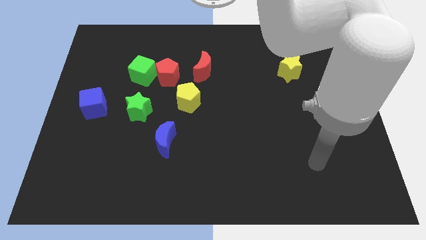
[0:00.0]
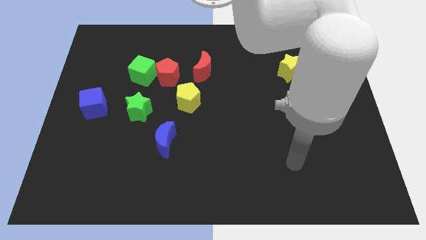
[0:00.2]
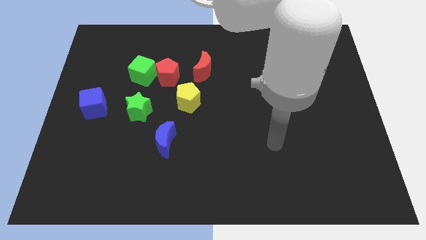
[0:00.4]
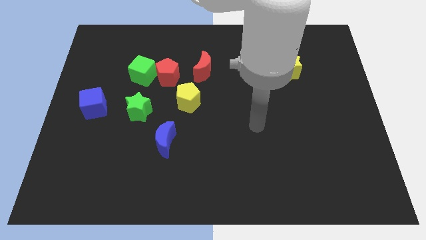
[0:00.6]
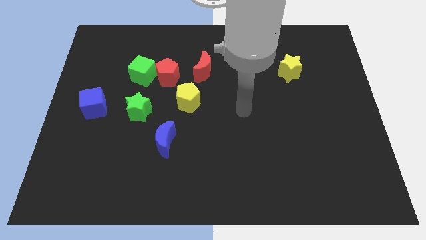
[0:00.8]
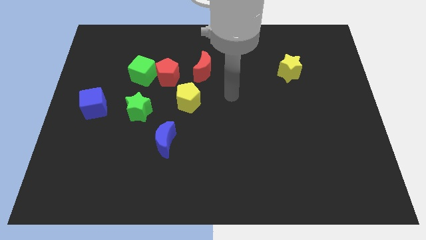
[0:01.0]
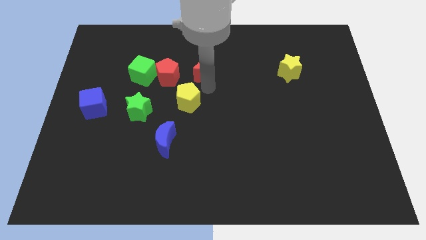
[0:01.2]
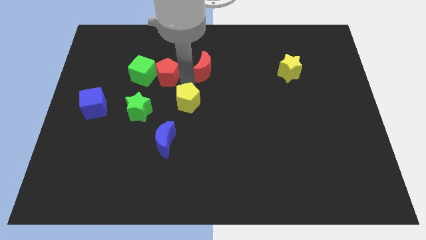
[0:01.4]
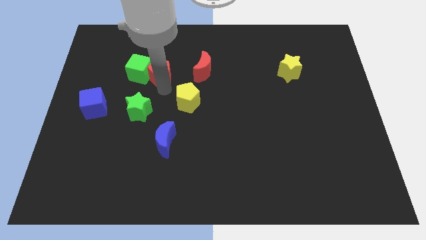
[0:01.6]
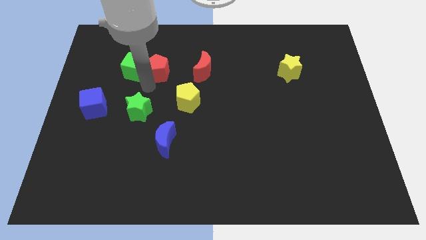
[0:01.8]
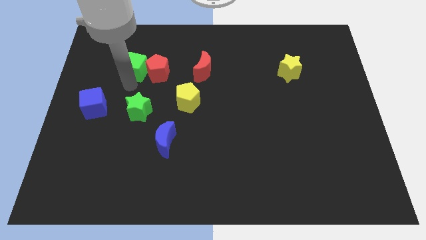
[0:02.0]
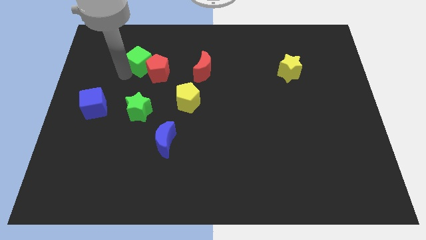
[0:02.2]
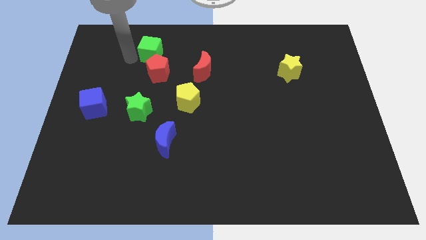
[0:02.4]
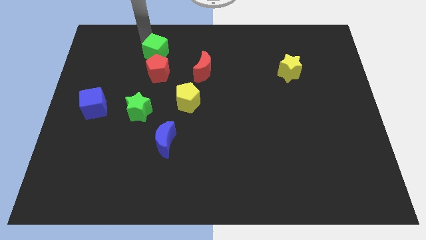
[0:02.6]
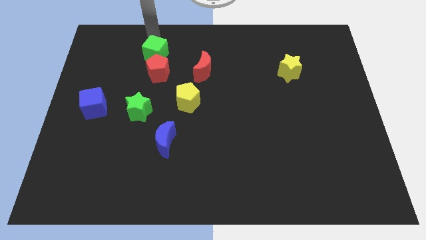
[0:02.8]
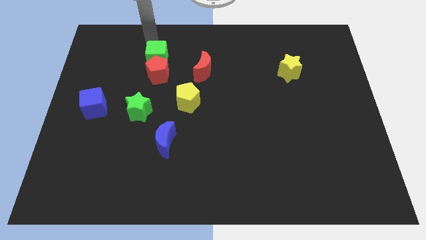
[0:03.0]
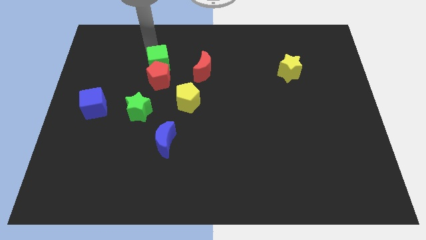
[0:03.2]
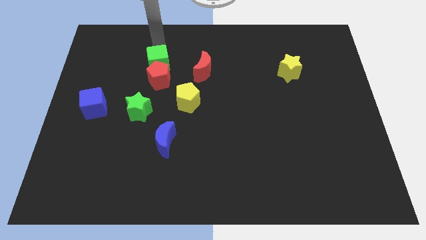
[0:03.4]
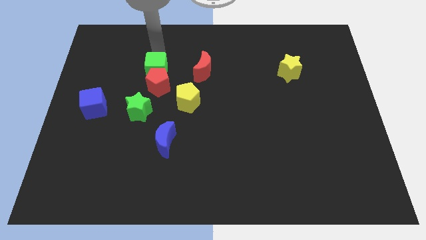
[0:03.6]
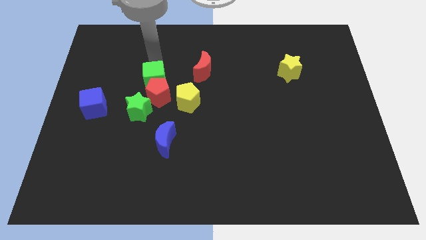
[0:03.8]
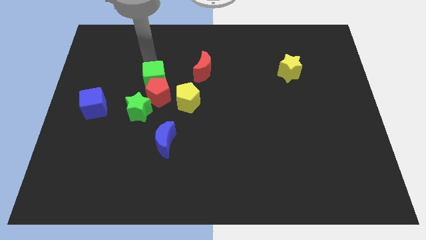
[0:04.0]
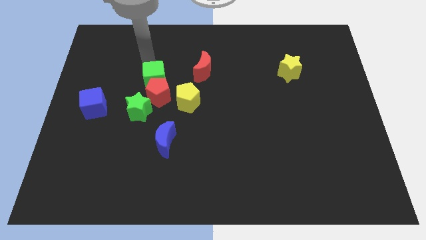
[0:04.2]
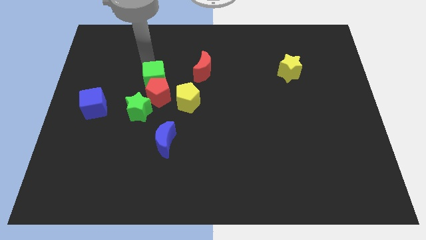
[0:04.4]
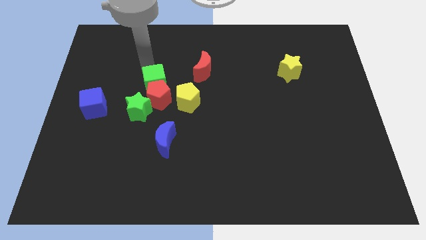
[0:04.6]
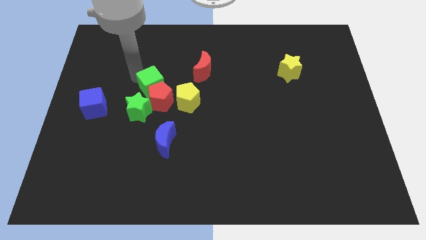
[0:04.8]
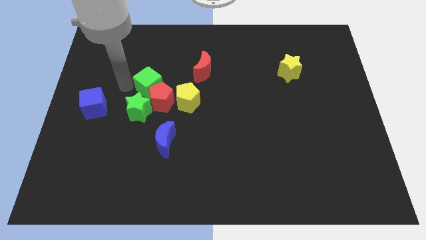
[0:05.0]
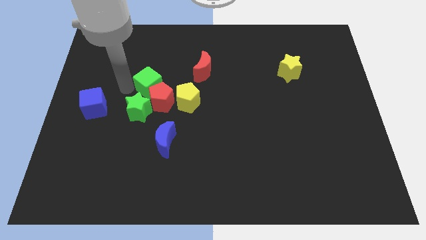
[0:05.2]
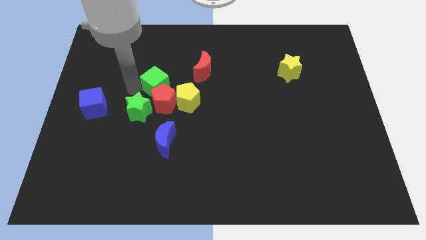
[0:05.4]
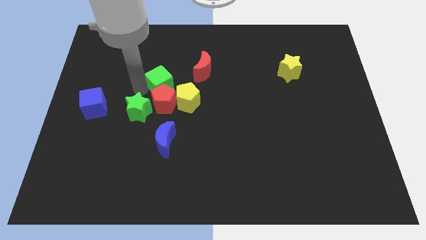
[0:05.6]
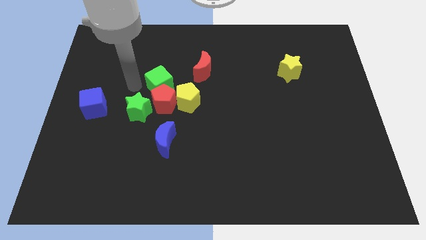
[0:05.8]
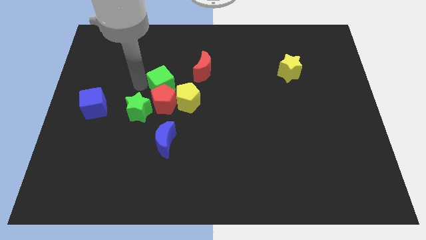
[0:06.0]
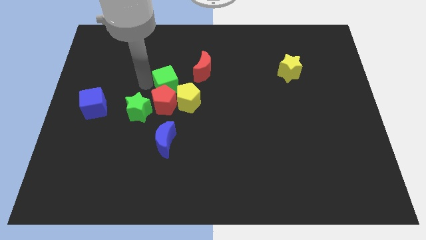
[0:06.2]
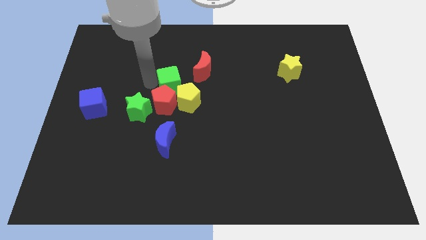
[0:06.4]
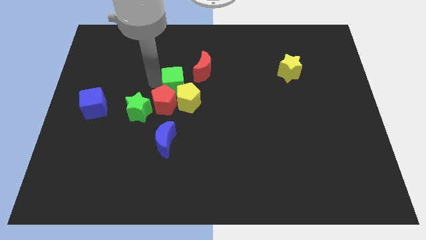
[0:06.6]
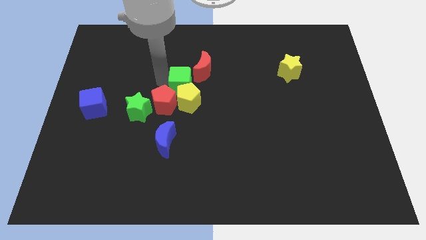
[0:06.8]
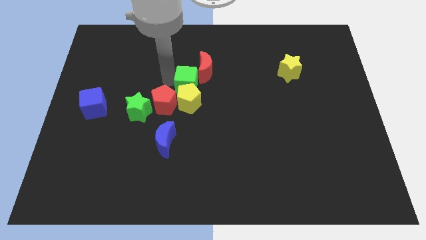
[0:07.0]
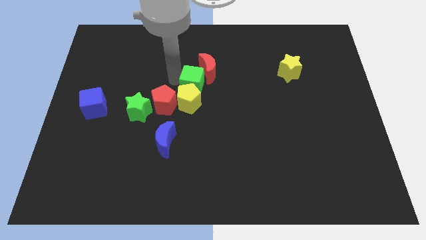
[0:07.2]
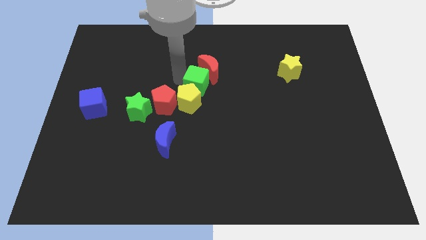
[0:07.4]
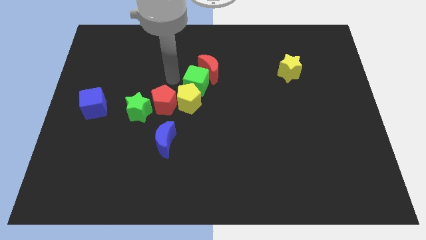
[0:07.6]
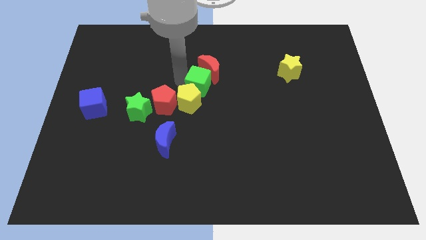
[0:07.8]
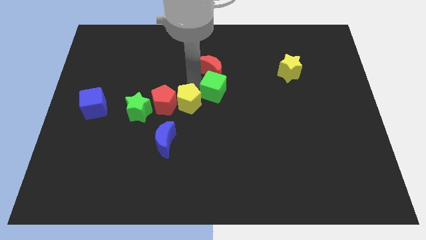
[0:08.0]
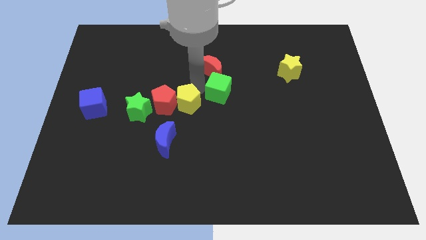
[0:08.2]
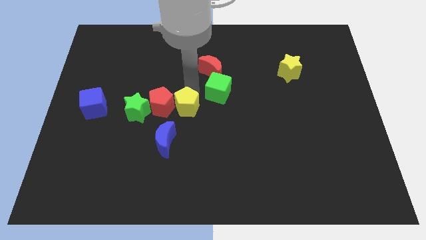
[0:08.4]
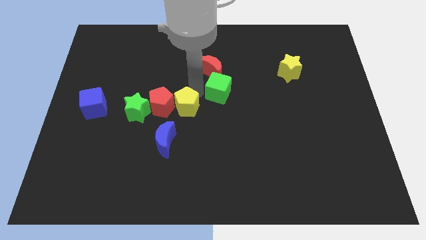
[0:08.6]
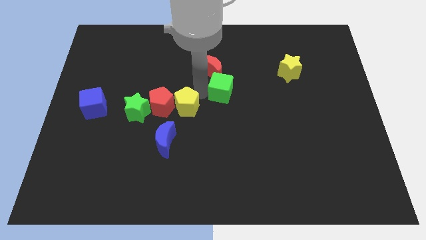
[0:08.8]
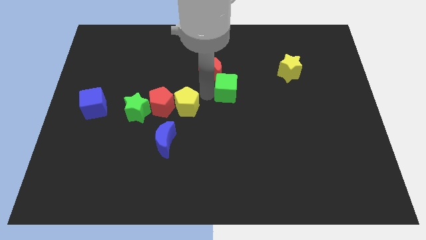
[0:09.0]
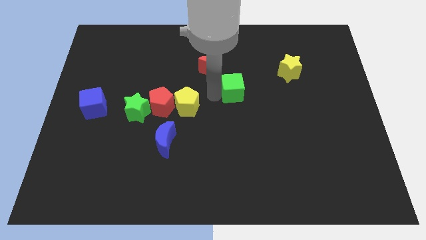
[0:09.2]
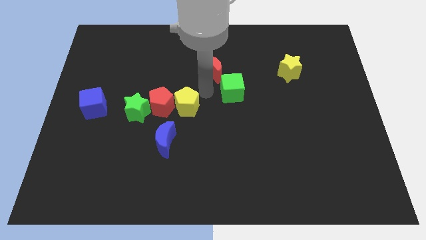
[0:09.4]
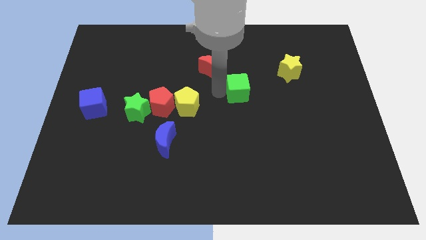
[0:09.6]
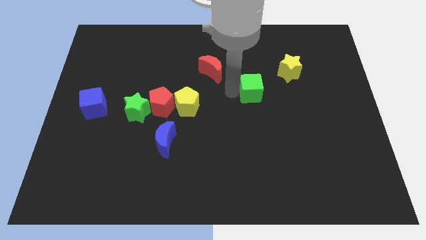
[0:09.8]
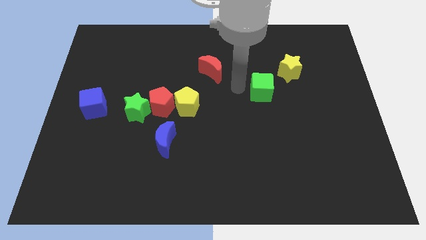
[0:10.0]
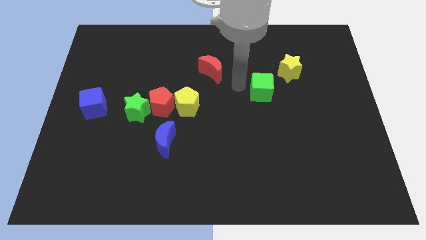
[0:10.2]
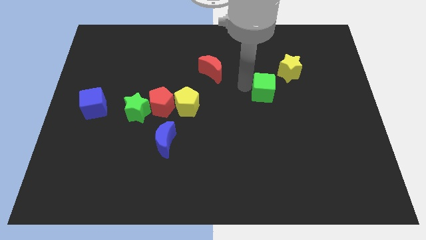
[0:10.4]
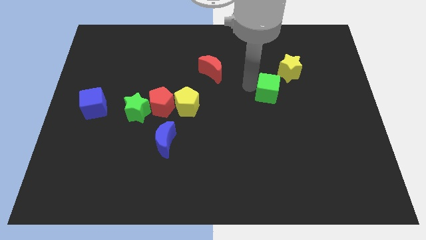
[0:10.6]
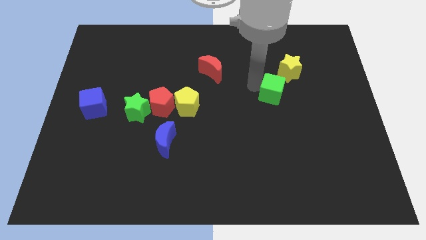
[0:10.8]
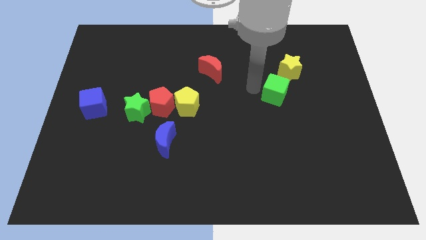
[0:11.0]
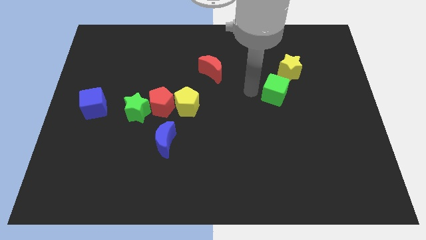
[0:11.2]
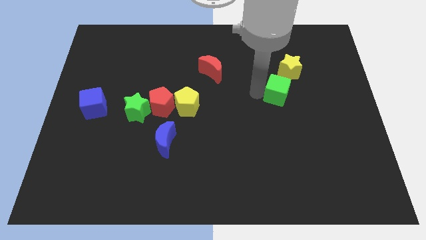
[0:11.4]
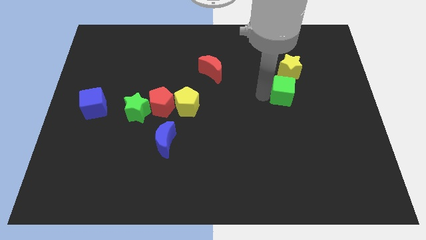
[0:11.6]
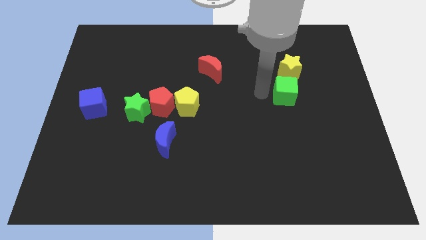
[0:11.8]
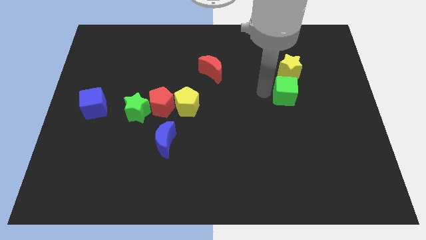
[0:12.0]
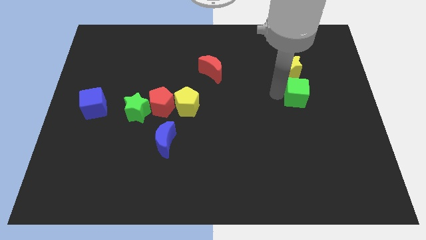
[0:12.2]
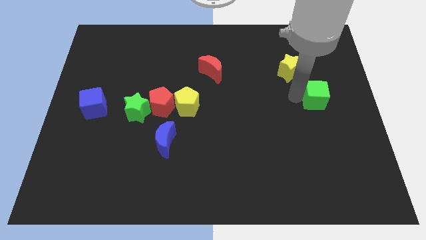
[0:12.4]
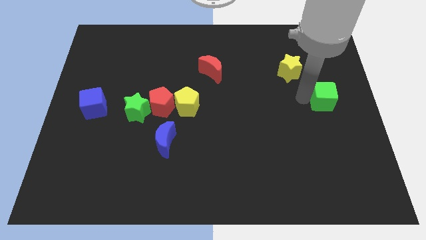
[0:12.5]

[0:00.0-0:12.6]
move the green cube to the right side
